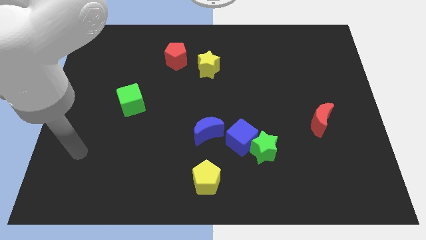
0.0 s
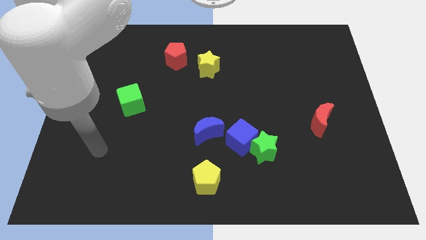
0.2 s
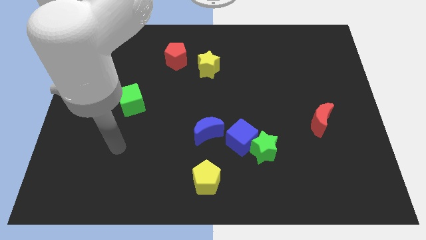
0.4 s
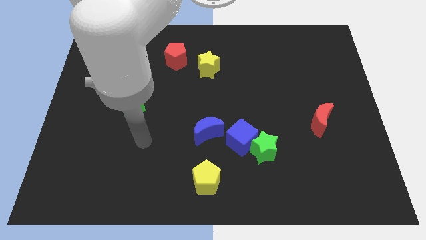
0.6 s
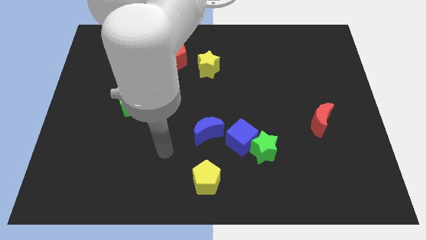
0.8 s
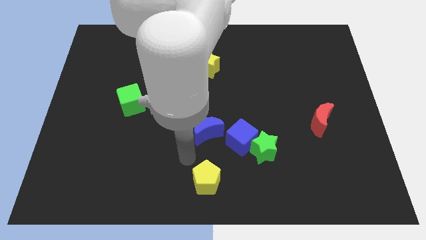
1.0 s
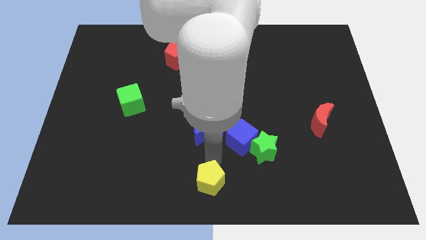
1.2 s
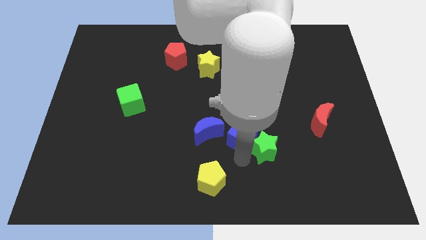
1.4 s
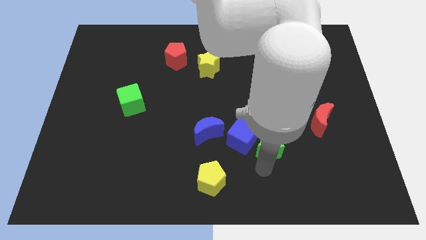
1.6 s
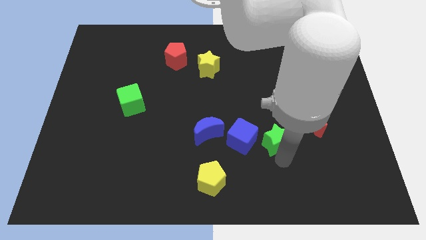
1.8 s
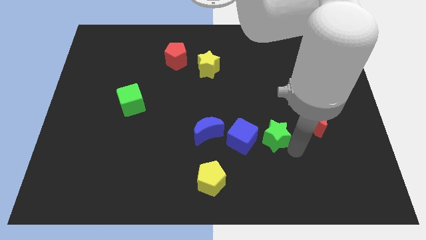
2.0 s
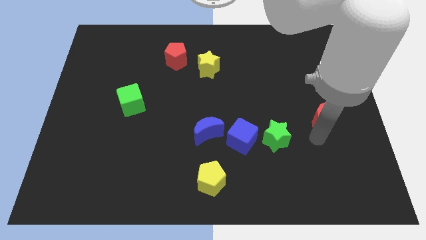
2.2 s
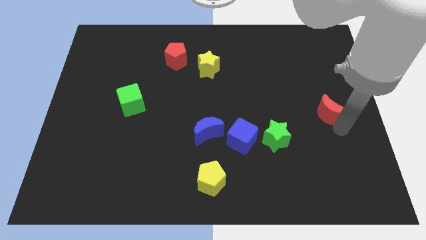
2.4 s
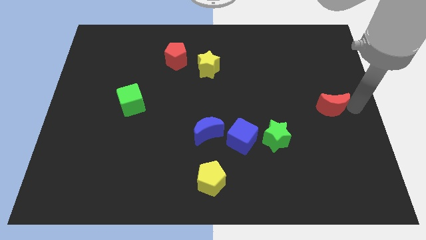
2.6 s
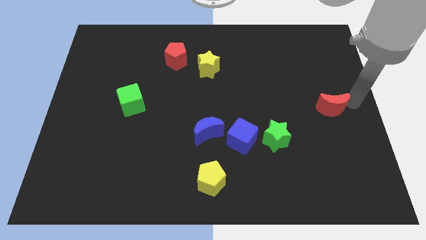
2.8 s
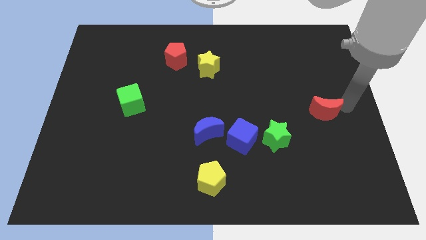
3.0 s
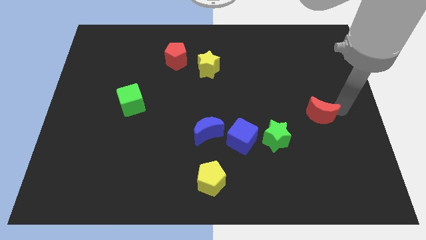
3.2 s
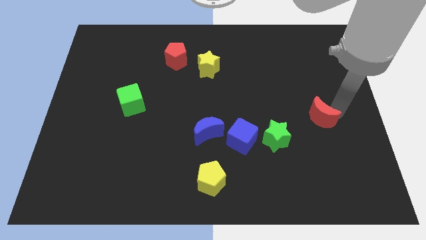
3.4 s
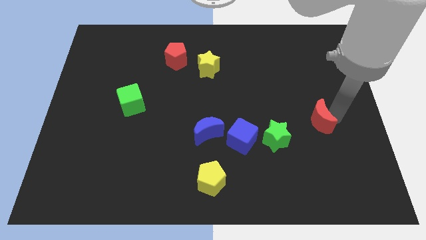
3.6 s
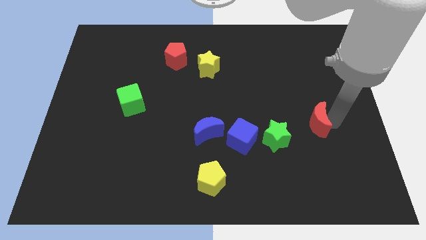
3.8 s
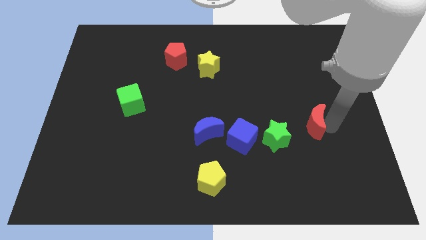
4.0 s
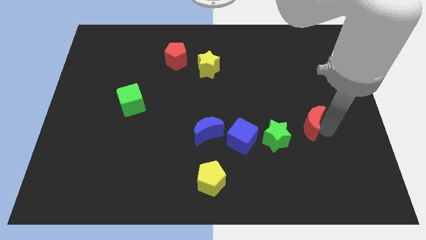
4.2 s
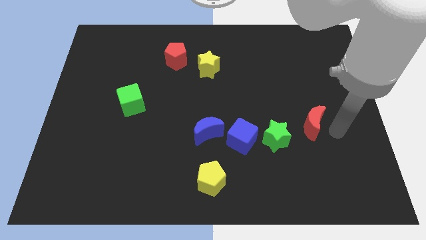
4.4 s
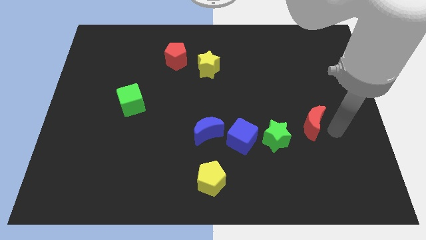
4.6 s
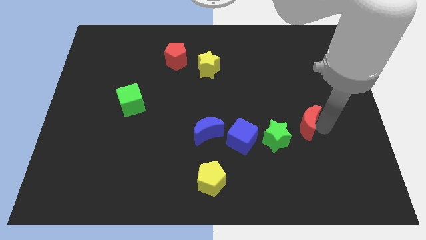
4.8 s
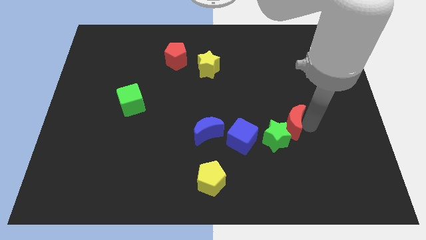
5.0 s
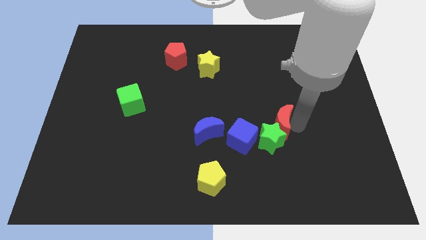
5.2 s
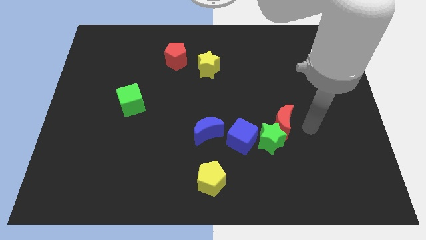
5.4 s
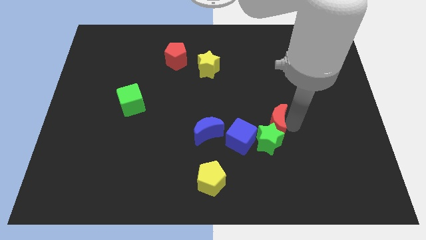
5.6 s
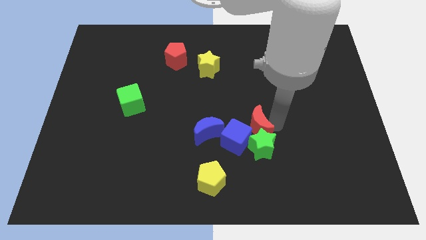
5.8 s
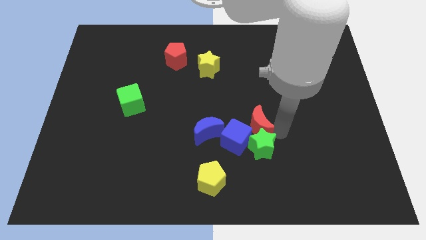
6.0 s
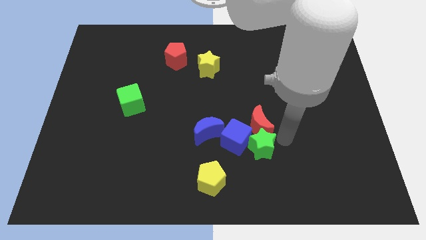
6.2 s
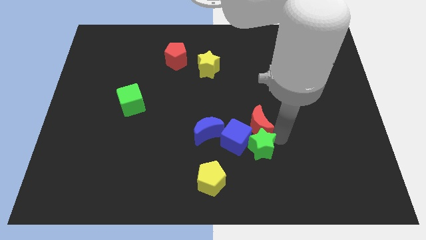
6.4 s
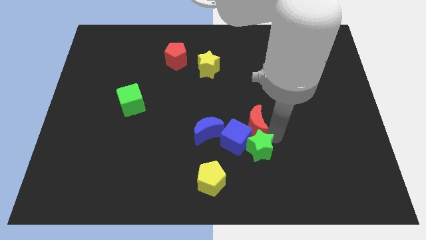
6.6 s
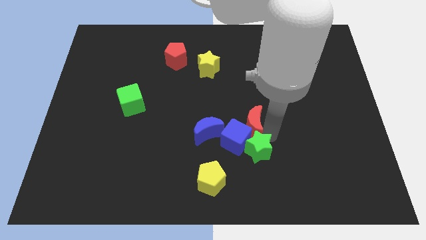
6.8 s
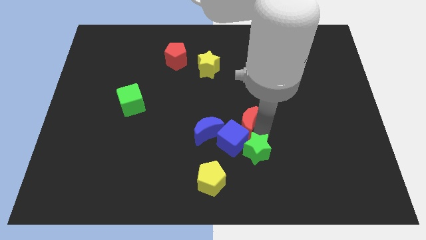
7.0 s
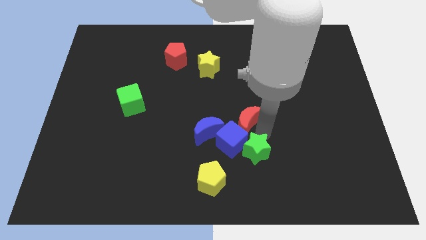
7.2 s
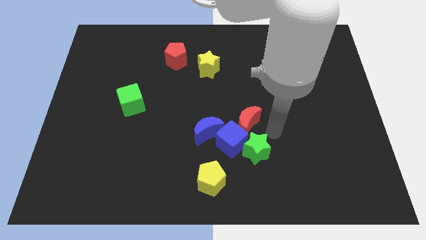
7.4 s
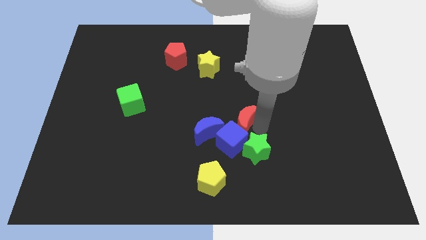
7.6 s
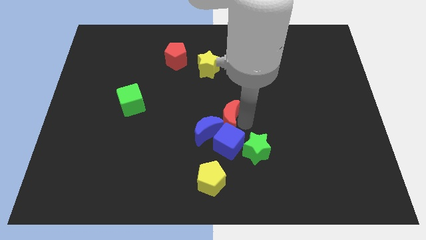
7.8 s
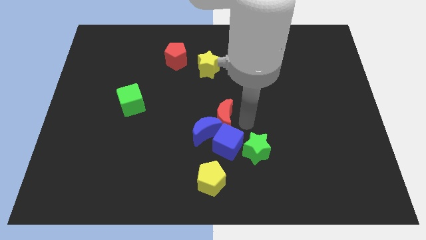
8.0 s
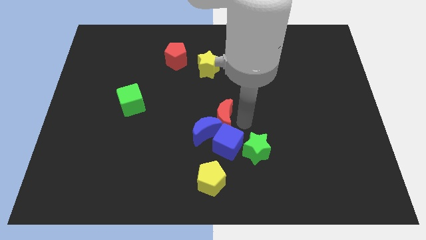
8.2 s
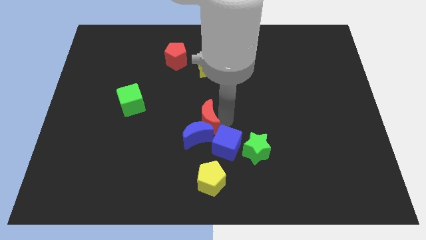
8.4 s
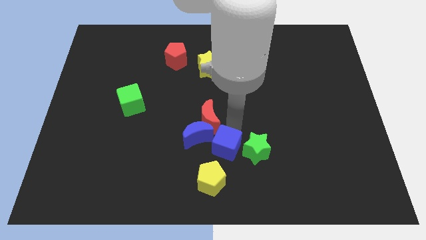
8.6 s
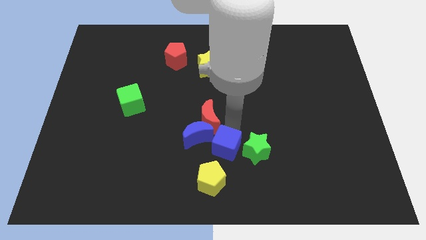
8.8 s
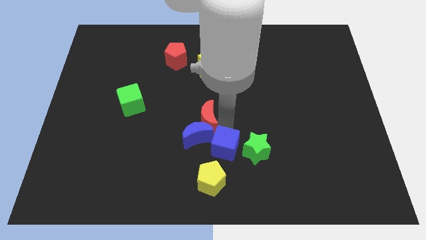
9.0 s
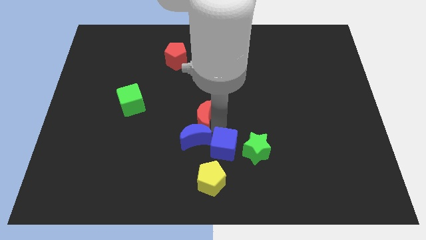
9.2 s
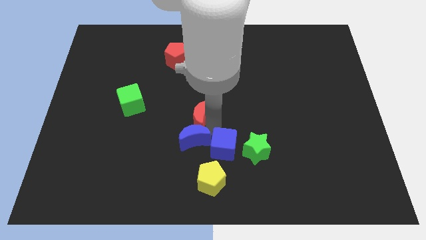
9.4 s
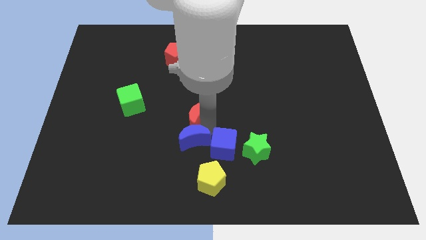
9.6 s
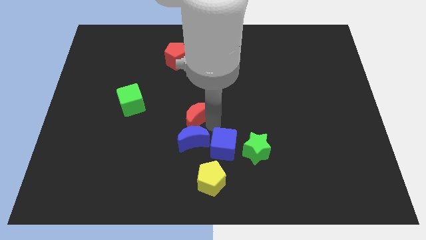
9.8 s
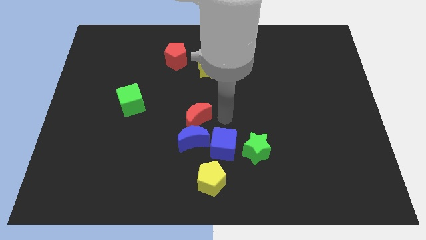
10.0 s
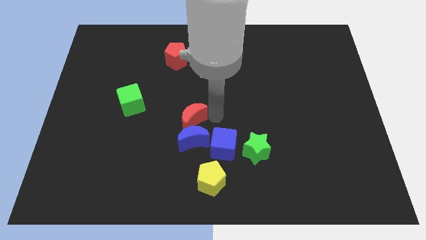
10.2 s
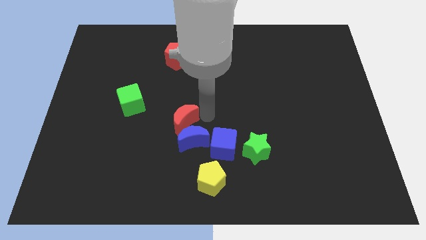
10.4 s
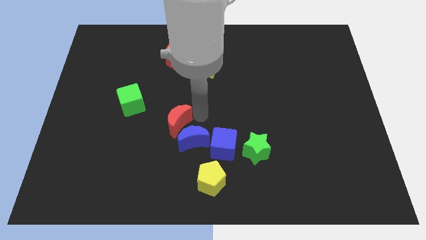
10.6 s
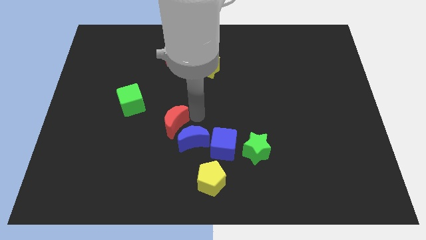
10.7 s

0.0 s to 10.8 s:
push the red moon to the bottom right of the green cube

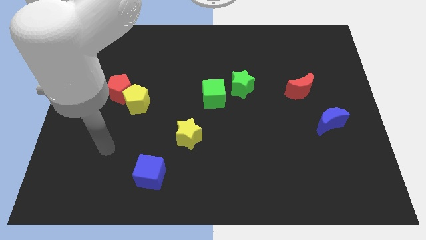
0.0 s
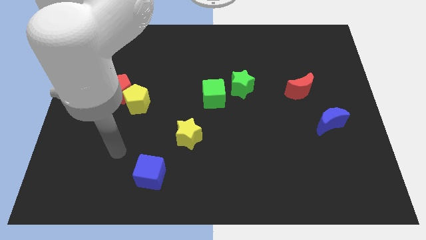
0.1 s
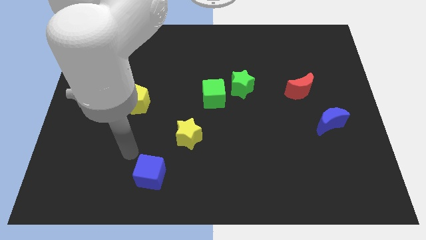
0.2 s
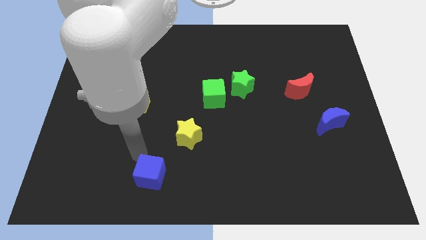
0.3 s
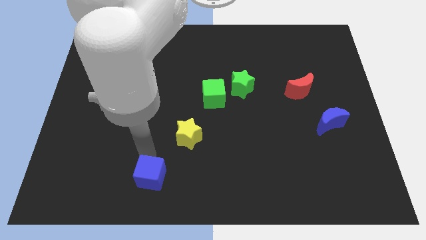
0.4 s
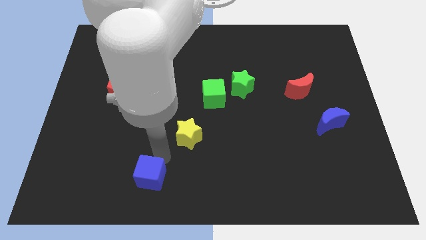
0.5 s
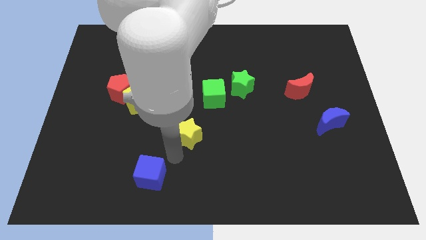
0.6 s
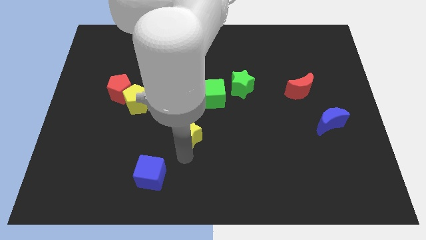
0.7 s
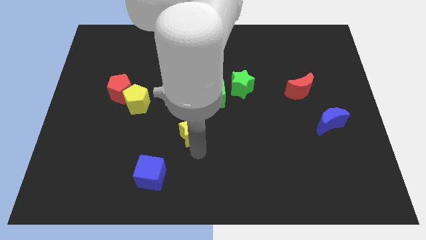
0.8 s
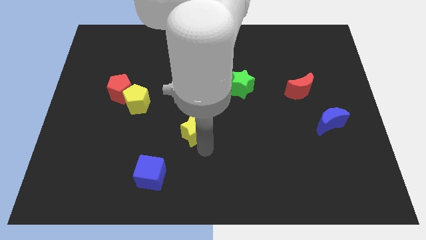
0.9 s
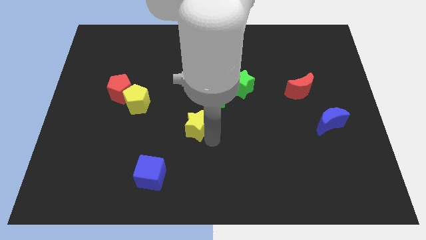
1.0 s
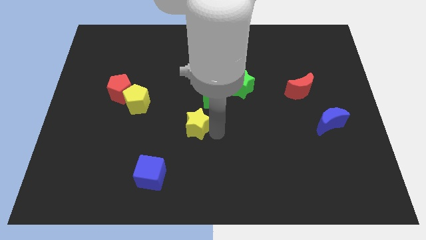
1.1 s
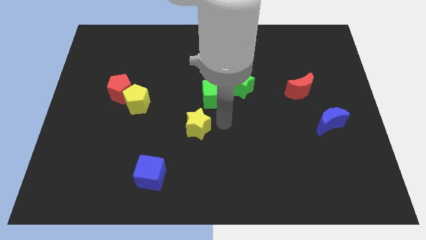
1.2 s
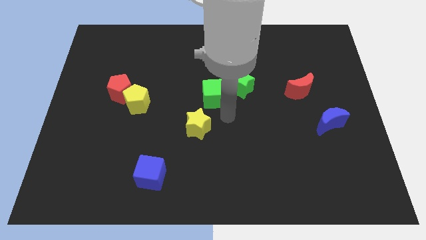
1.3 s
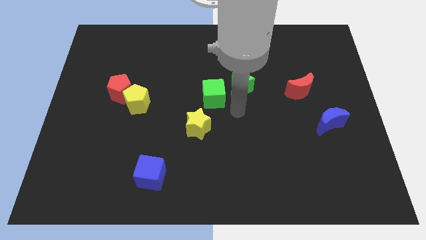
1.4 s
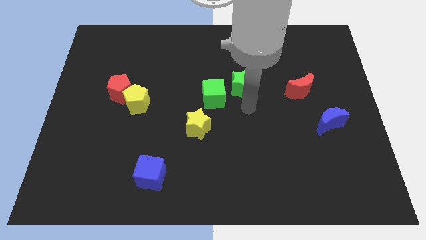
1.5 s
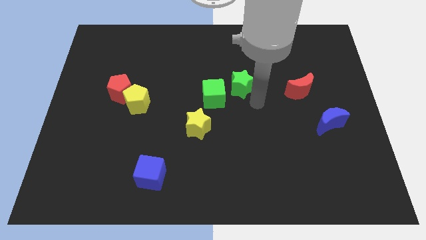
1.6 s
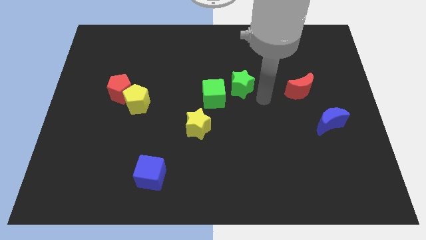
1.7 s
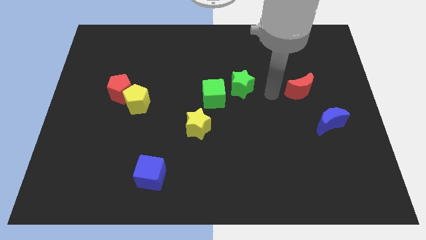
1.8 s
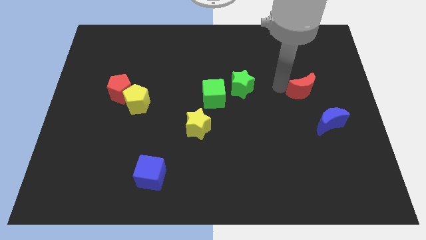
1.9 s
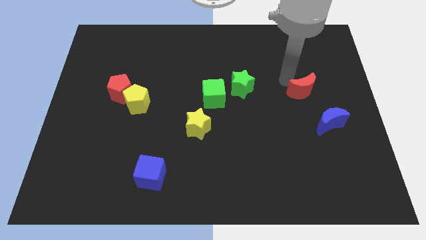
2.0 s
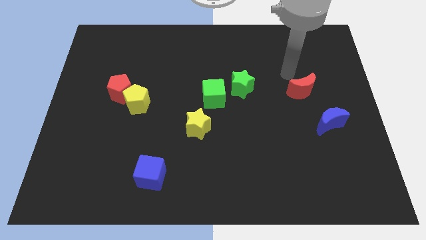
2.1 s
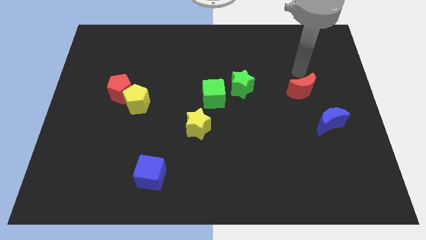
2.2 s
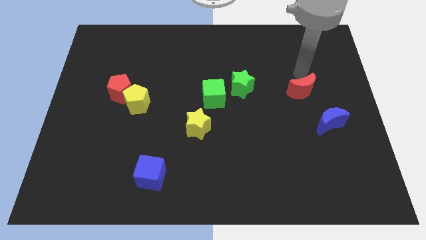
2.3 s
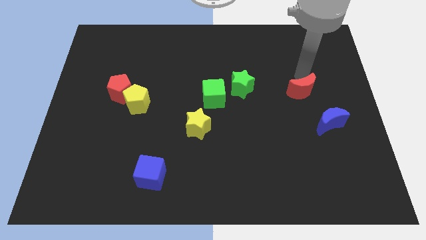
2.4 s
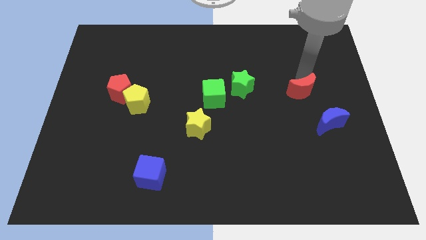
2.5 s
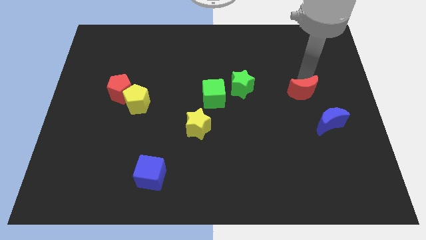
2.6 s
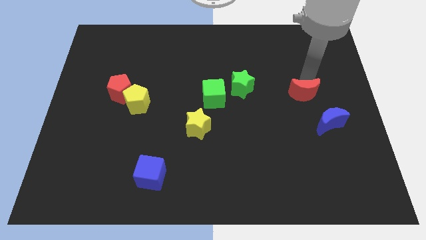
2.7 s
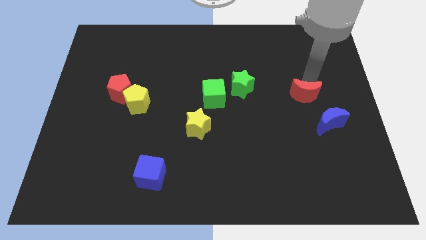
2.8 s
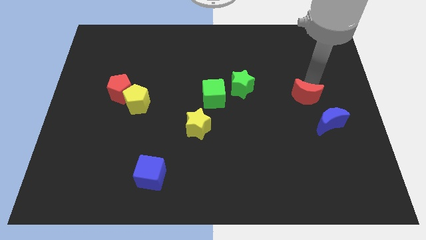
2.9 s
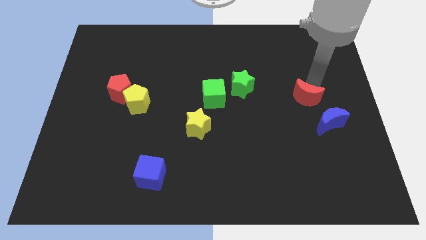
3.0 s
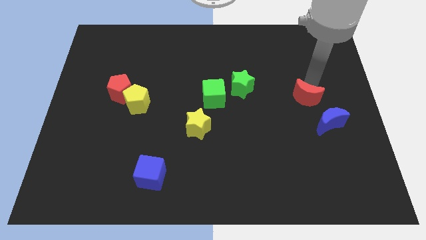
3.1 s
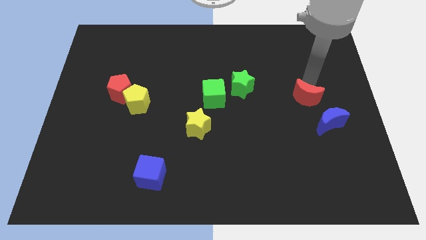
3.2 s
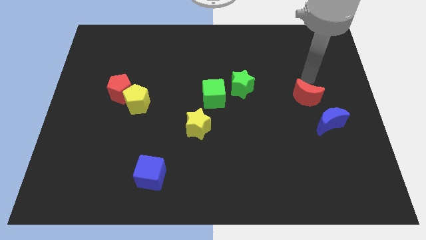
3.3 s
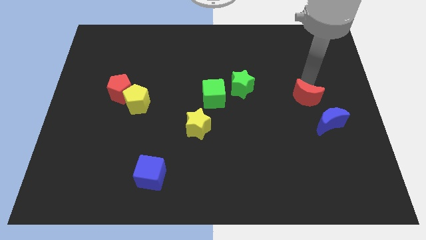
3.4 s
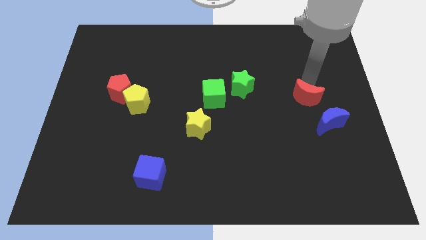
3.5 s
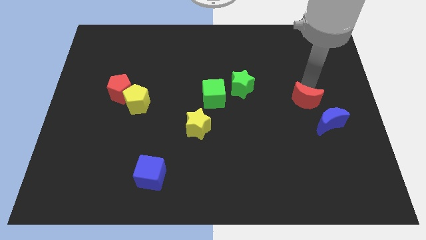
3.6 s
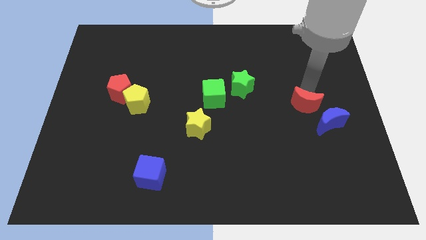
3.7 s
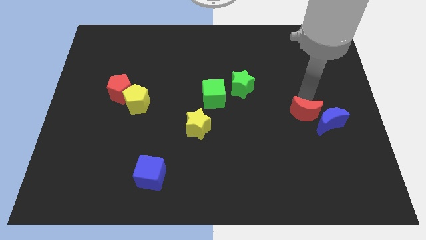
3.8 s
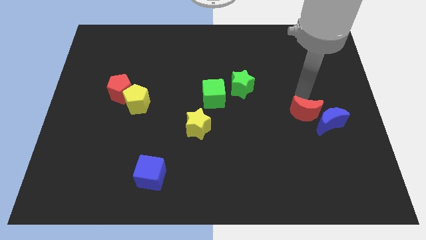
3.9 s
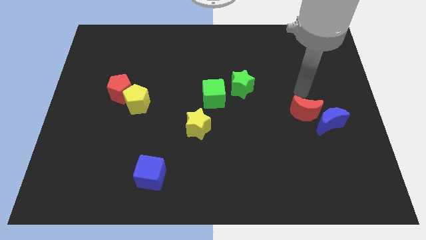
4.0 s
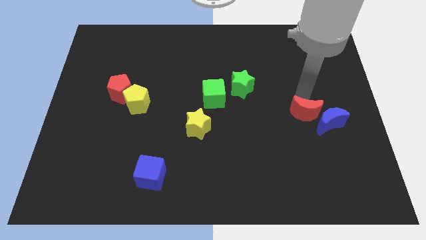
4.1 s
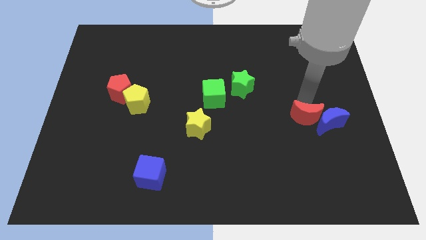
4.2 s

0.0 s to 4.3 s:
push the red moon to the bottom left side of the blue moon
